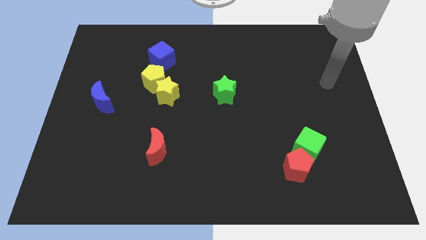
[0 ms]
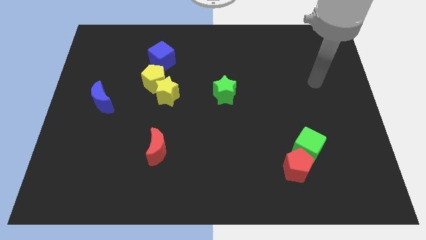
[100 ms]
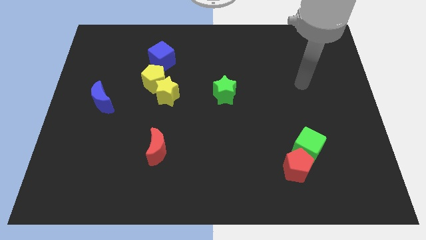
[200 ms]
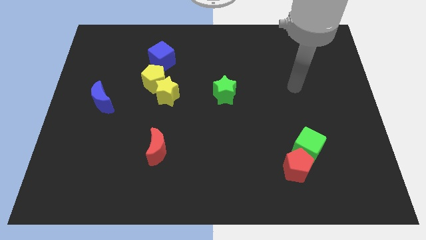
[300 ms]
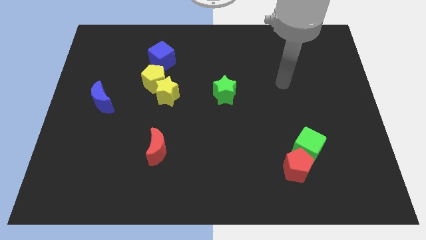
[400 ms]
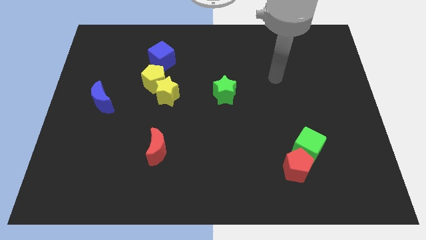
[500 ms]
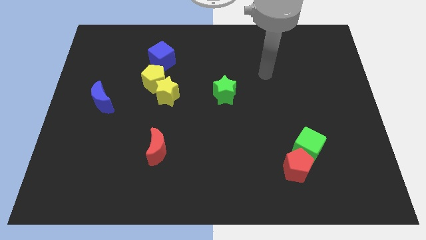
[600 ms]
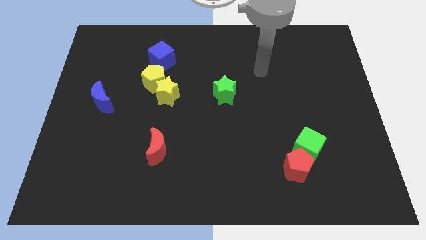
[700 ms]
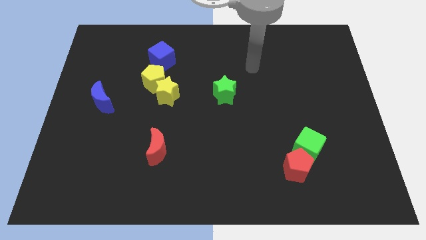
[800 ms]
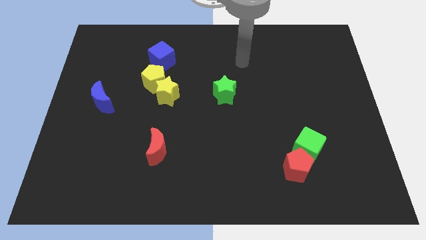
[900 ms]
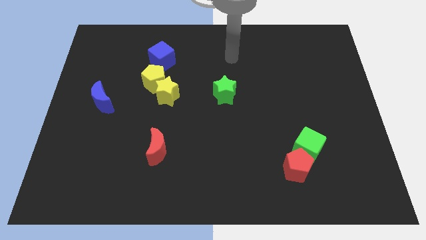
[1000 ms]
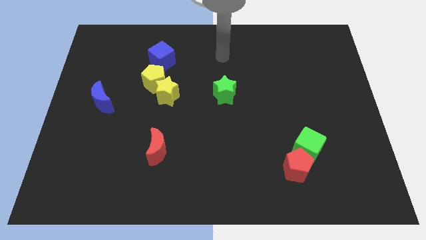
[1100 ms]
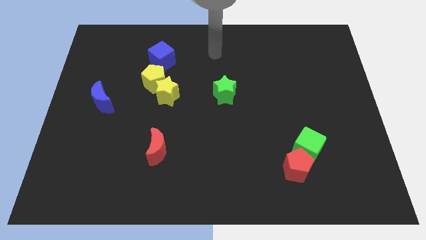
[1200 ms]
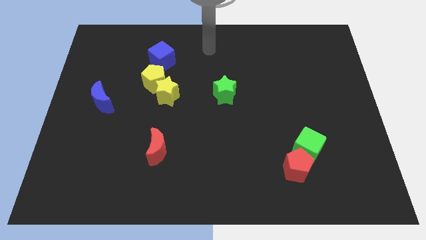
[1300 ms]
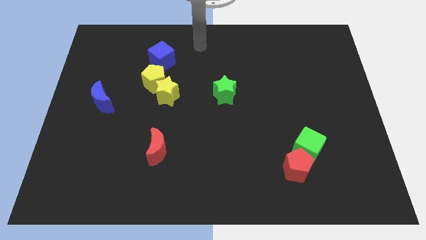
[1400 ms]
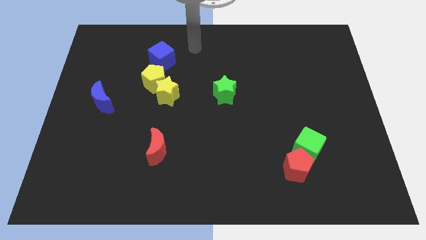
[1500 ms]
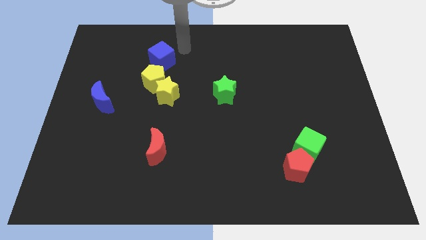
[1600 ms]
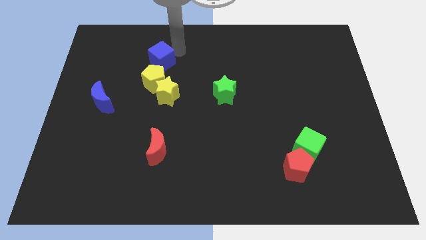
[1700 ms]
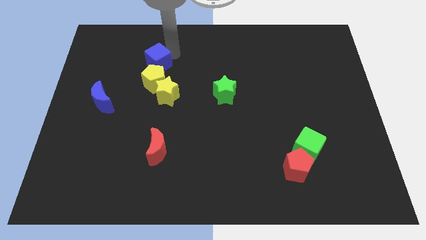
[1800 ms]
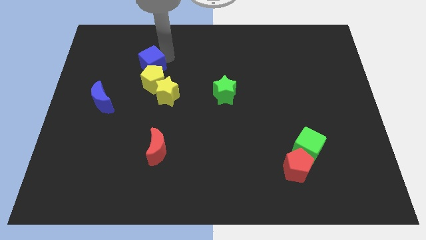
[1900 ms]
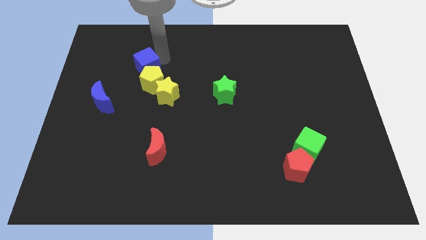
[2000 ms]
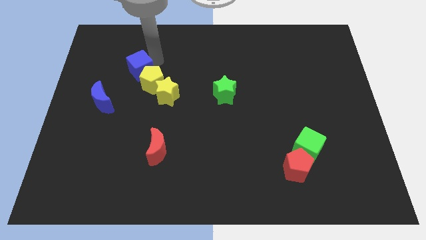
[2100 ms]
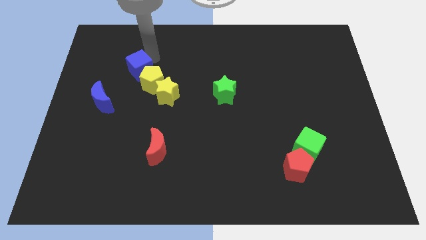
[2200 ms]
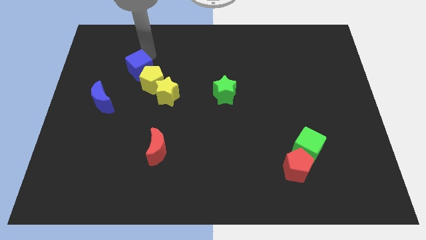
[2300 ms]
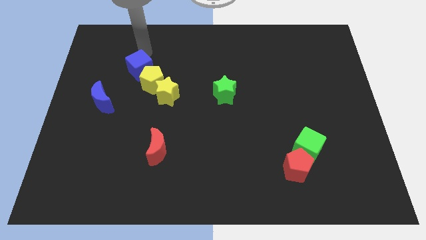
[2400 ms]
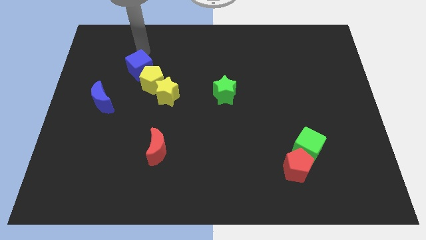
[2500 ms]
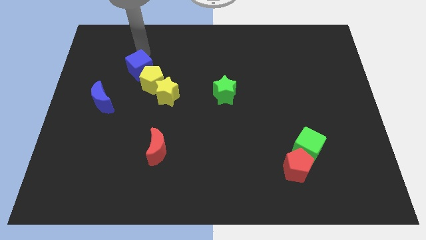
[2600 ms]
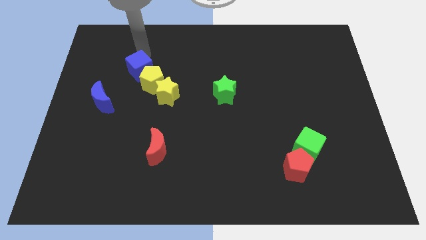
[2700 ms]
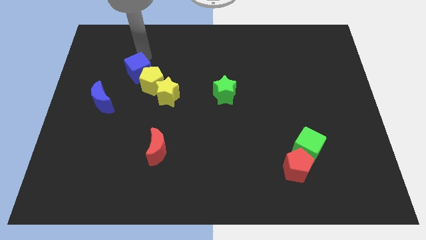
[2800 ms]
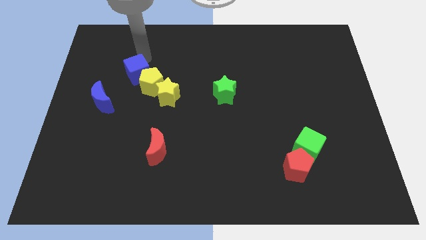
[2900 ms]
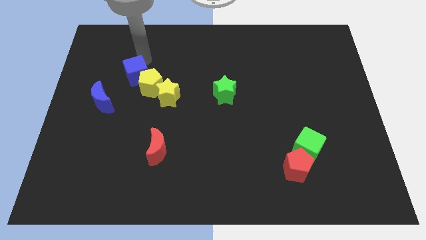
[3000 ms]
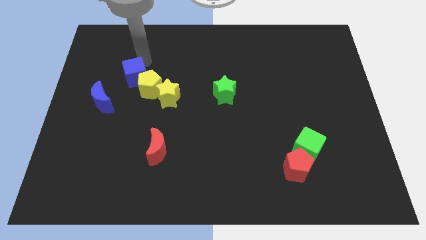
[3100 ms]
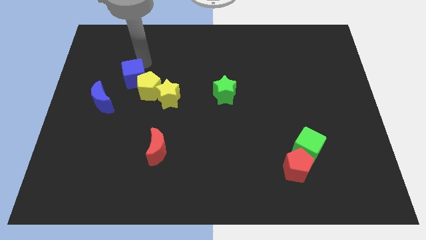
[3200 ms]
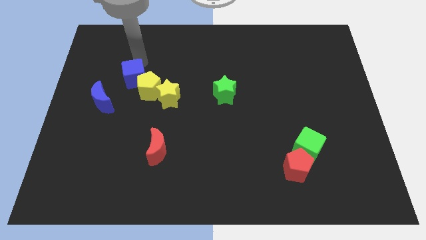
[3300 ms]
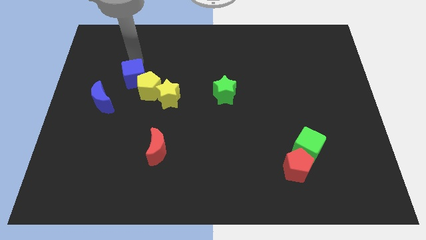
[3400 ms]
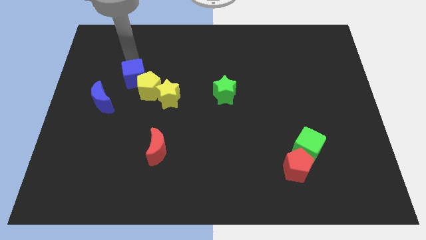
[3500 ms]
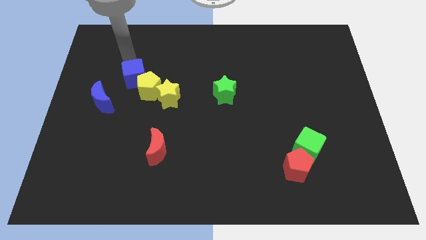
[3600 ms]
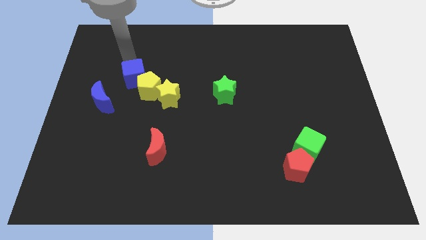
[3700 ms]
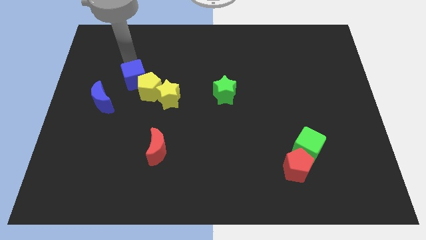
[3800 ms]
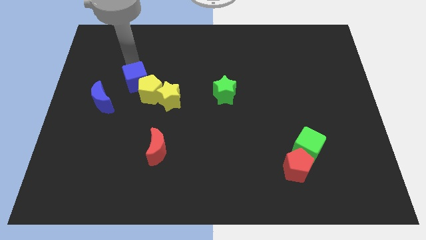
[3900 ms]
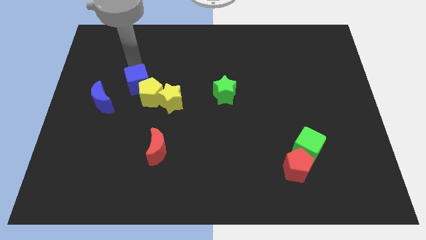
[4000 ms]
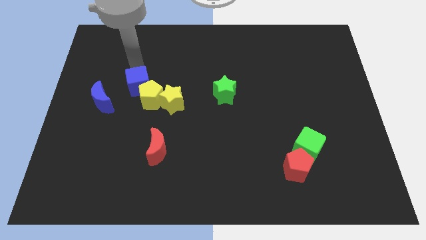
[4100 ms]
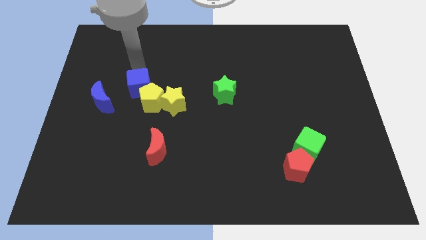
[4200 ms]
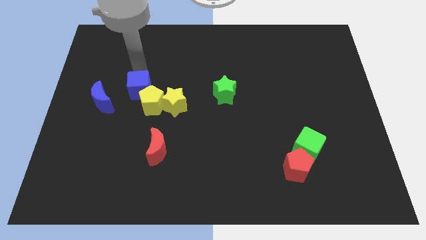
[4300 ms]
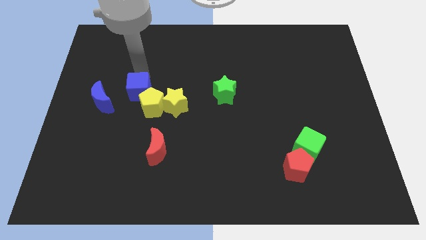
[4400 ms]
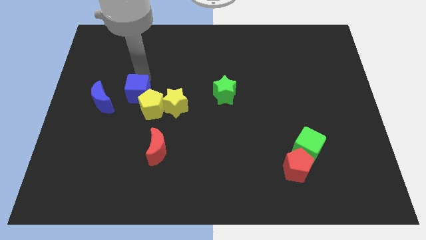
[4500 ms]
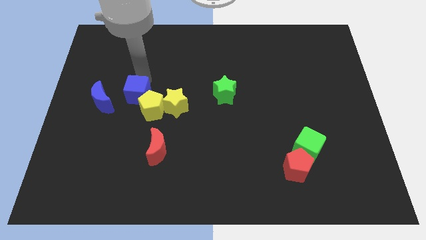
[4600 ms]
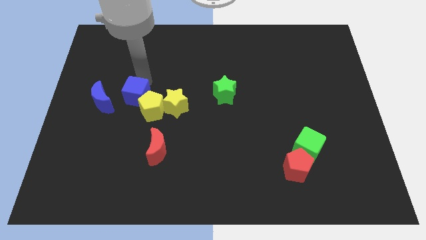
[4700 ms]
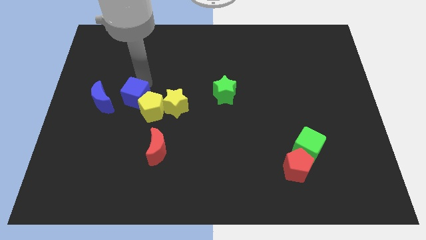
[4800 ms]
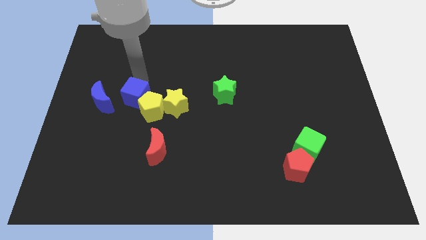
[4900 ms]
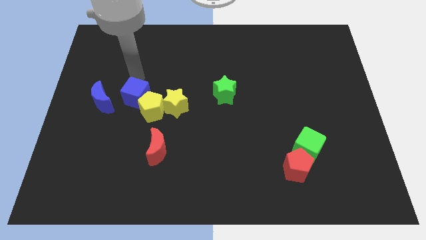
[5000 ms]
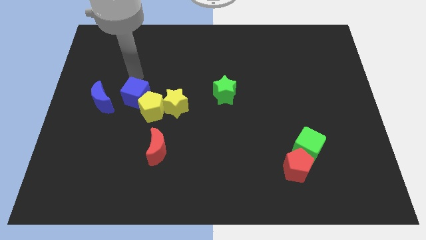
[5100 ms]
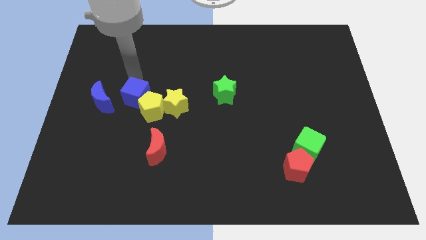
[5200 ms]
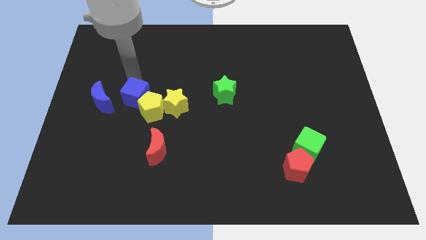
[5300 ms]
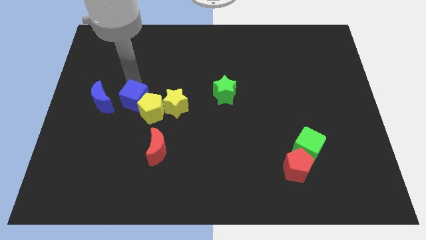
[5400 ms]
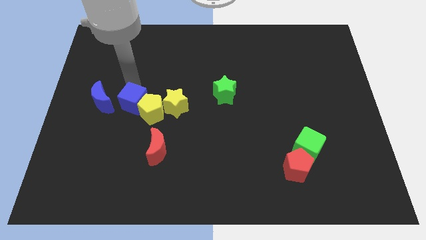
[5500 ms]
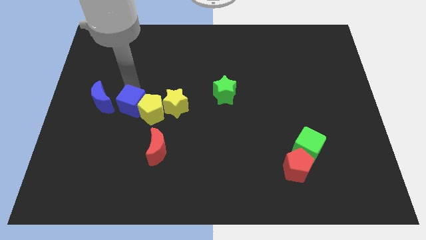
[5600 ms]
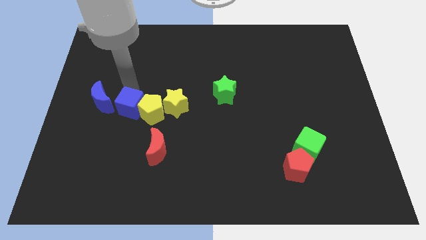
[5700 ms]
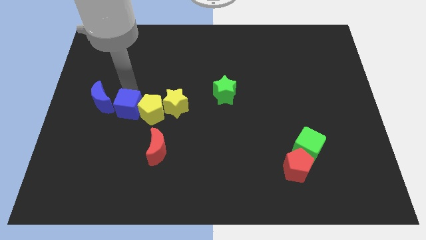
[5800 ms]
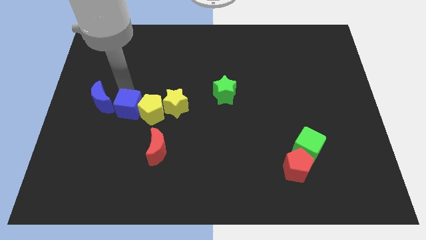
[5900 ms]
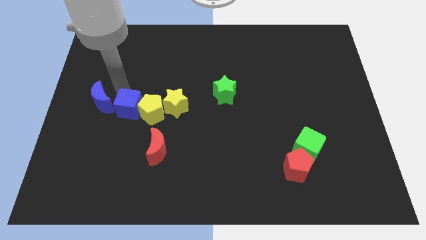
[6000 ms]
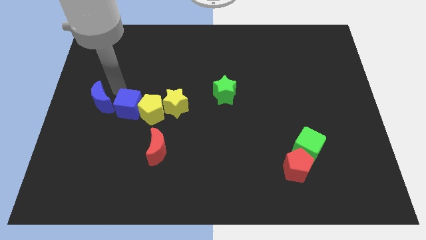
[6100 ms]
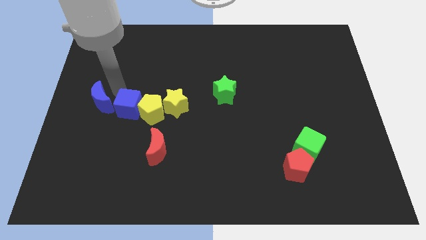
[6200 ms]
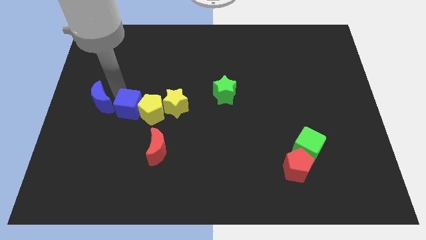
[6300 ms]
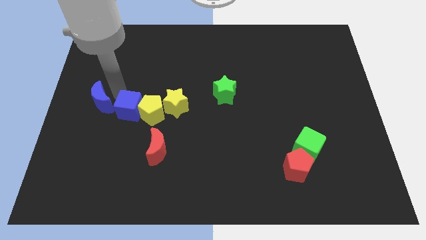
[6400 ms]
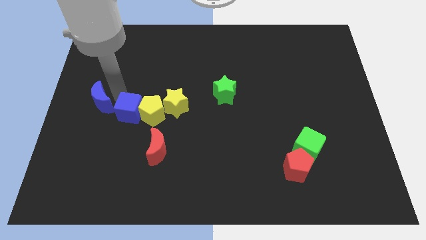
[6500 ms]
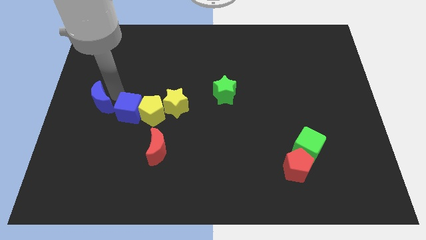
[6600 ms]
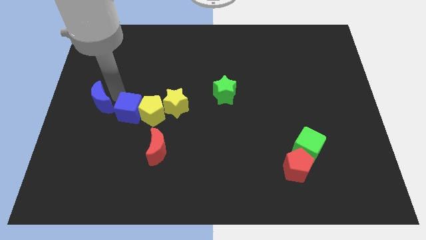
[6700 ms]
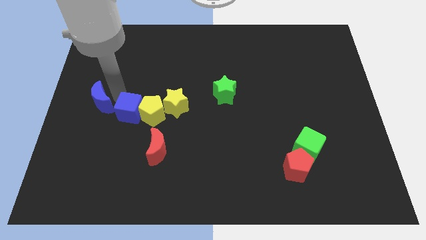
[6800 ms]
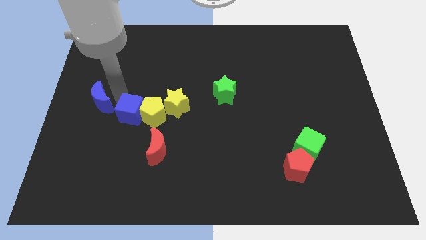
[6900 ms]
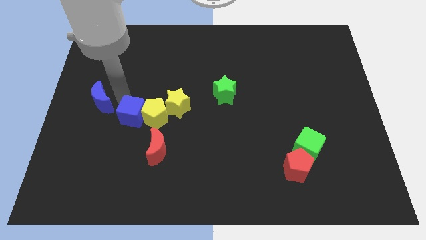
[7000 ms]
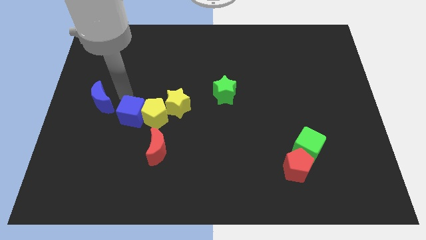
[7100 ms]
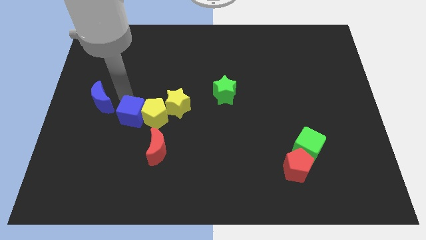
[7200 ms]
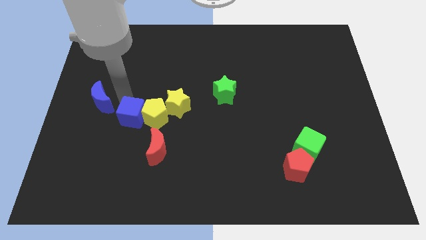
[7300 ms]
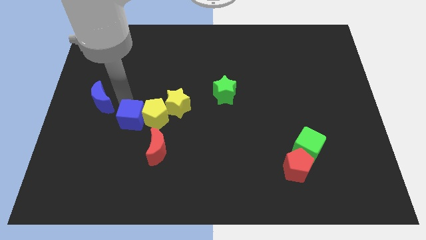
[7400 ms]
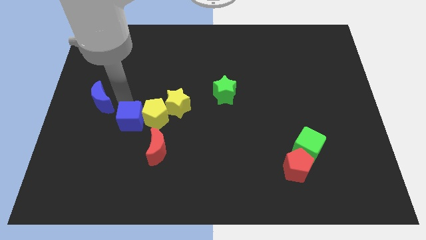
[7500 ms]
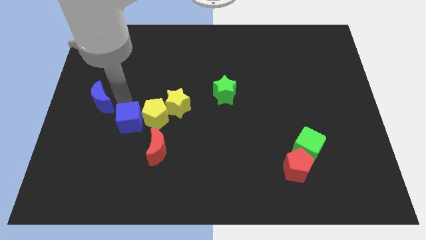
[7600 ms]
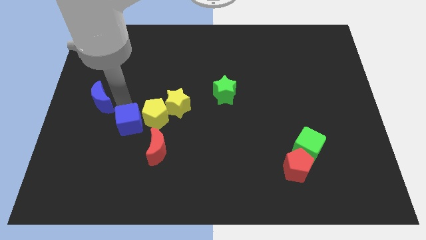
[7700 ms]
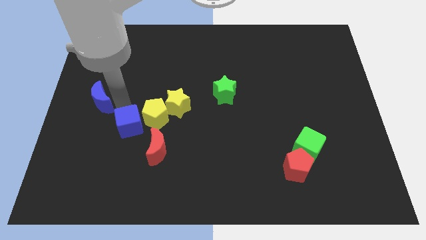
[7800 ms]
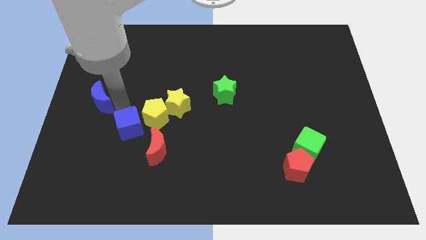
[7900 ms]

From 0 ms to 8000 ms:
push the blue cube downwards
